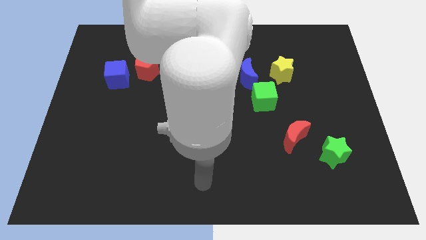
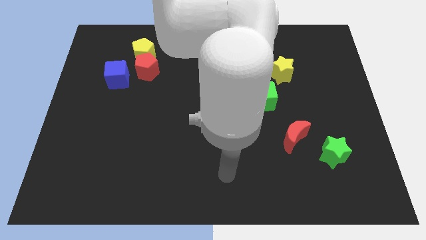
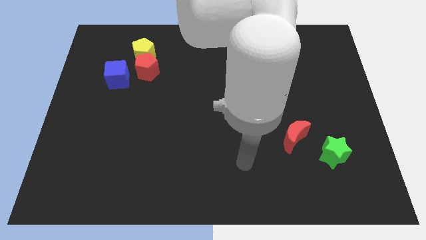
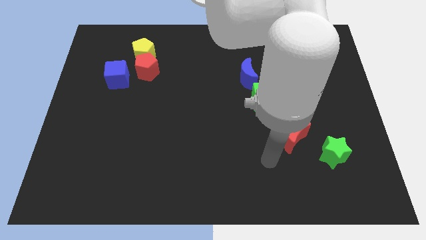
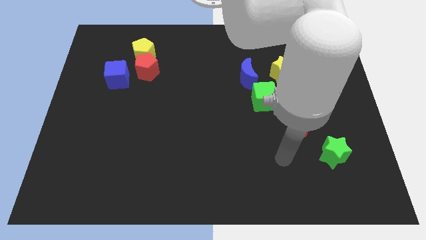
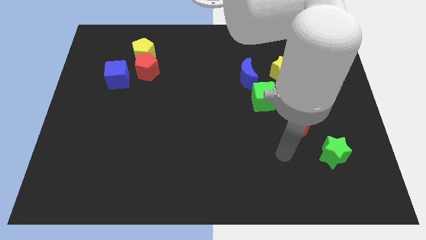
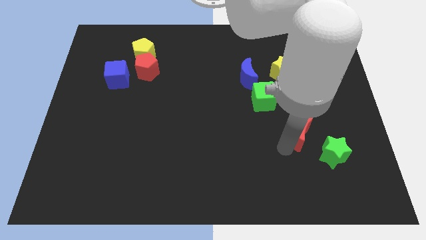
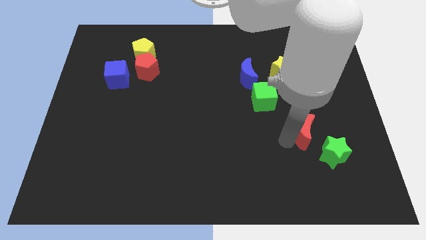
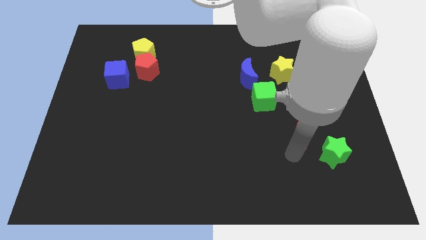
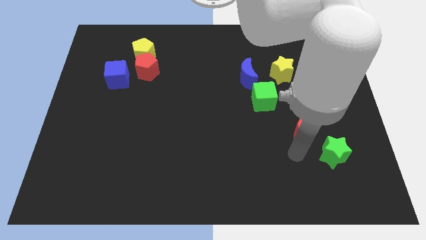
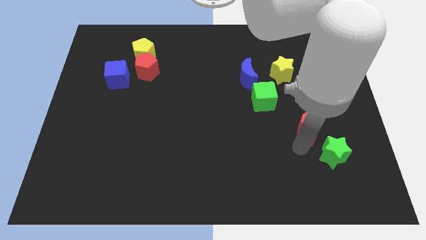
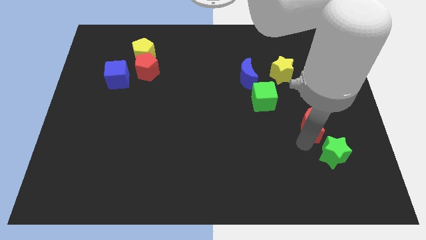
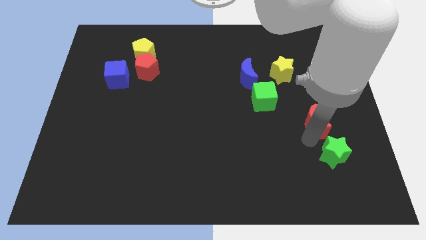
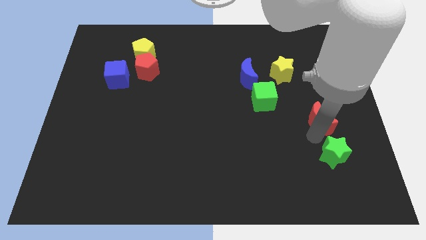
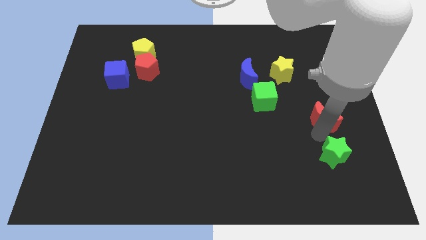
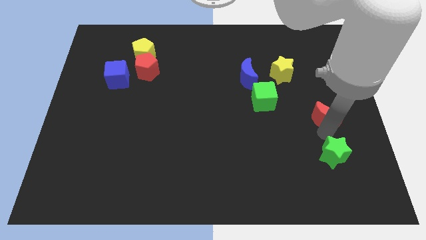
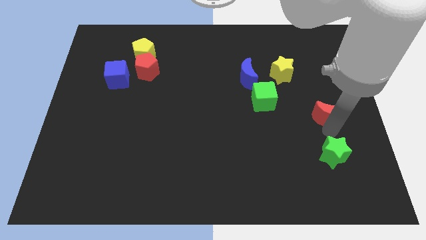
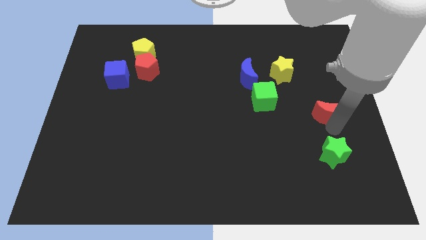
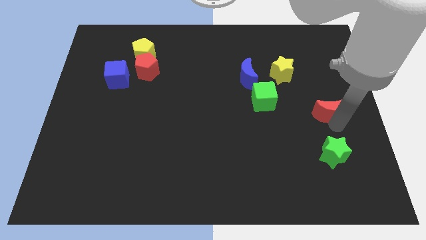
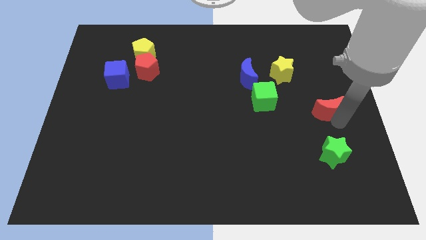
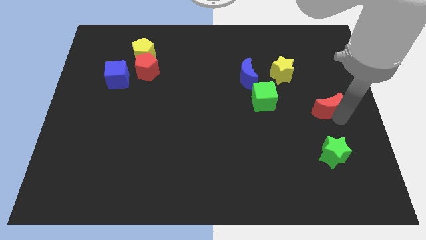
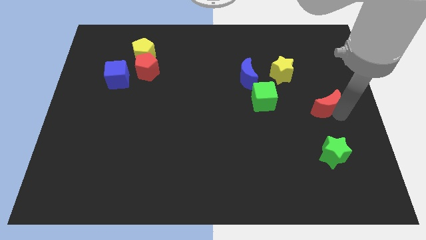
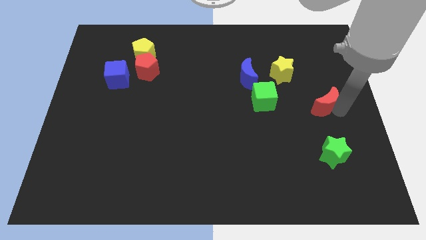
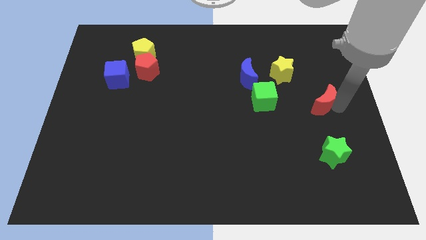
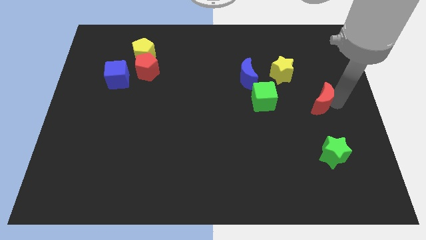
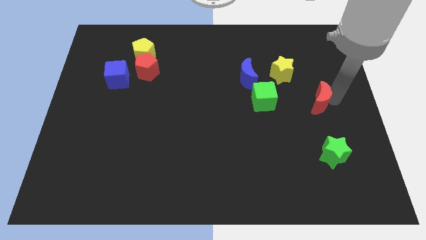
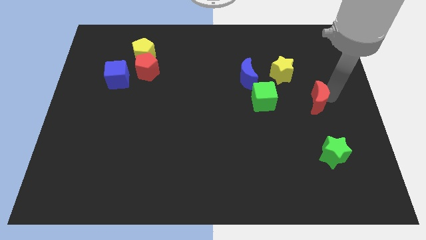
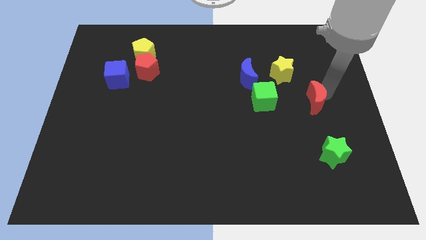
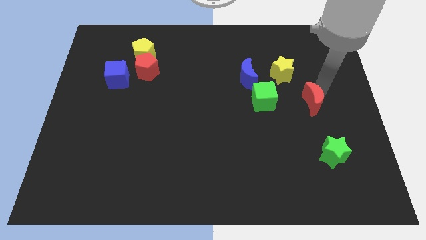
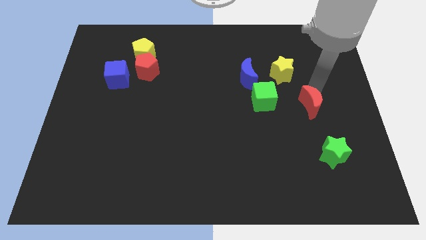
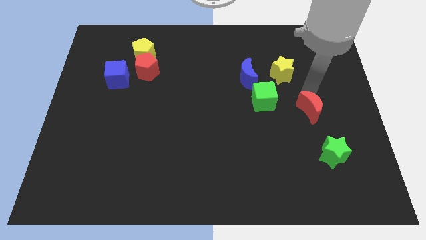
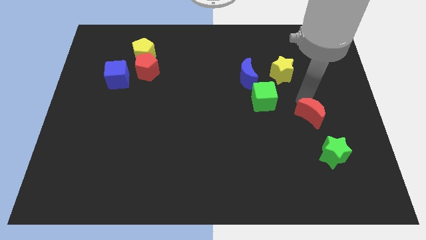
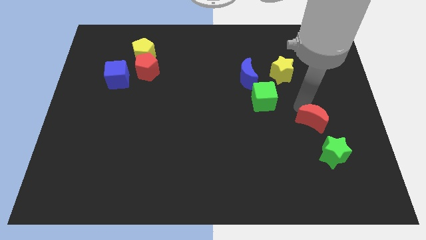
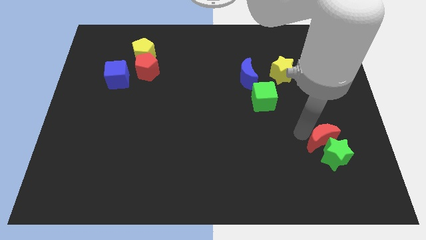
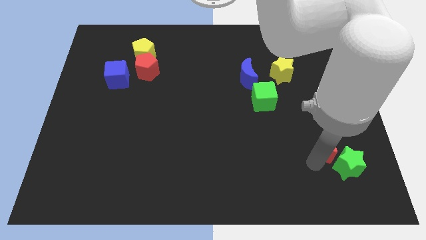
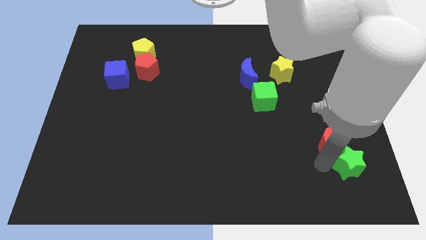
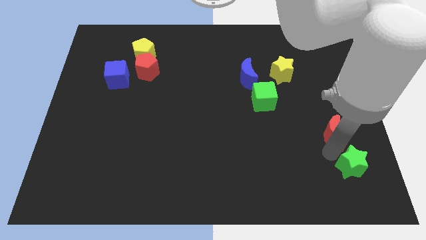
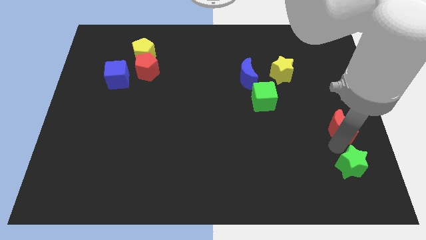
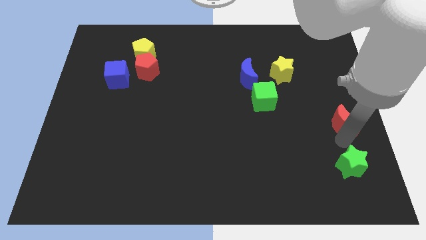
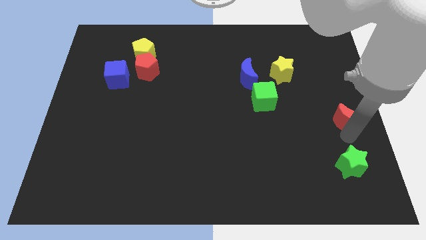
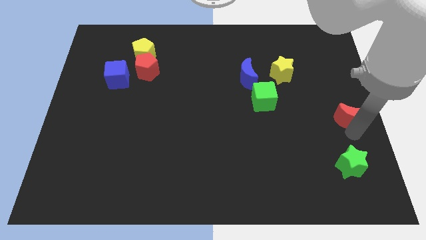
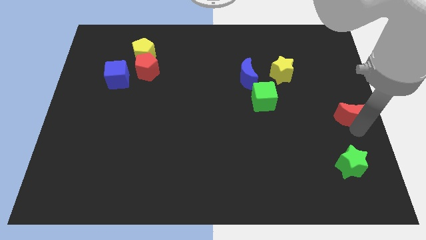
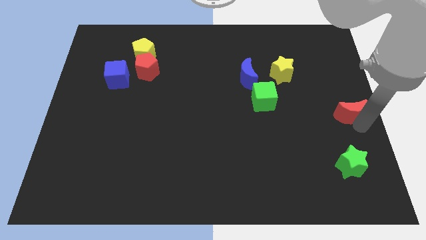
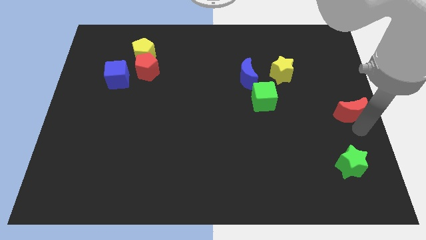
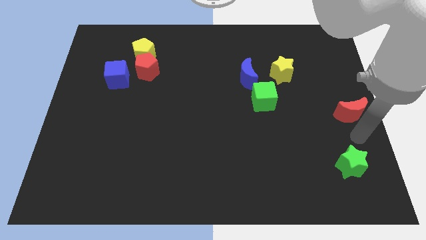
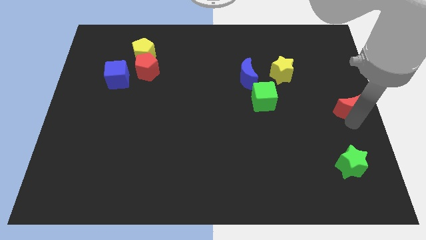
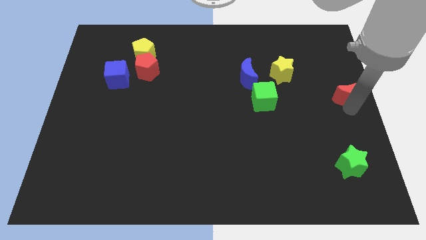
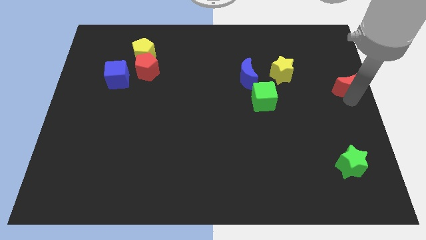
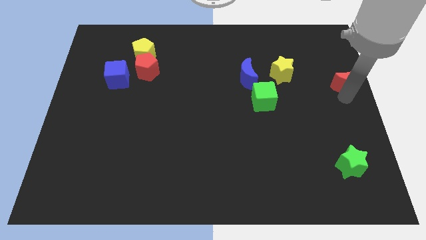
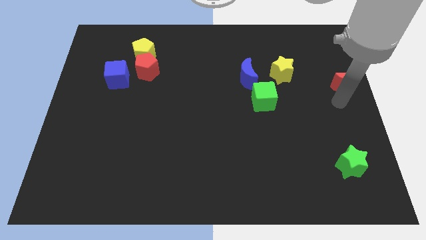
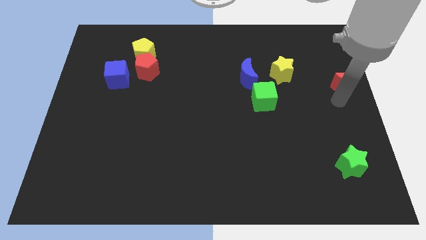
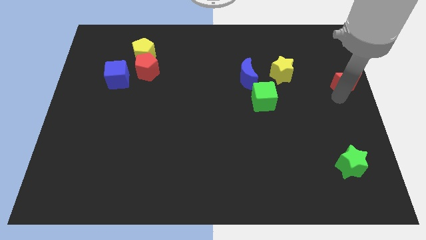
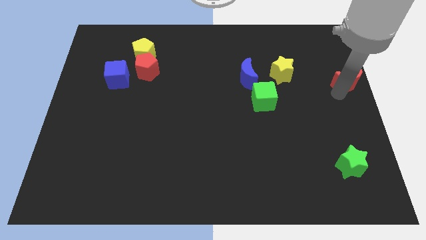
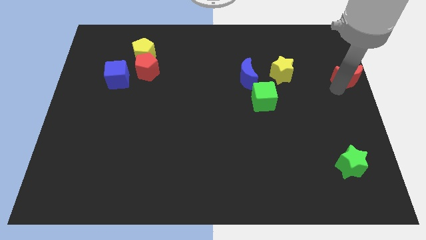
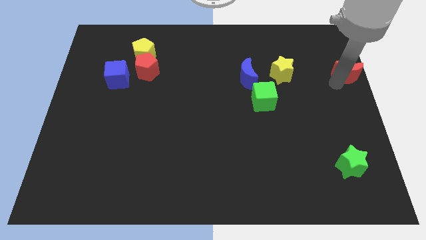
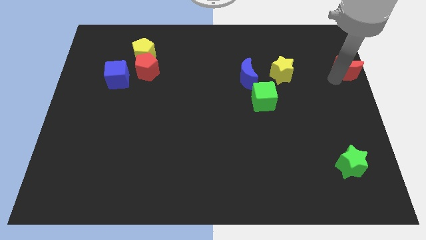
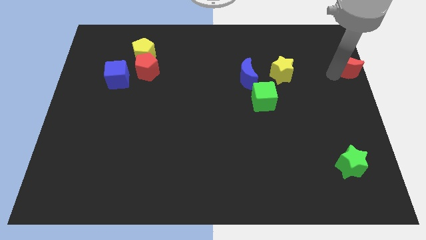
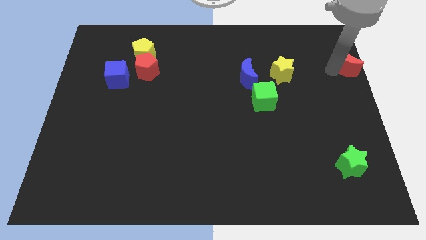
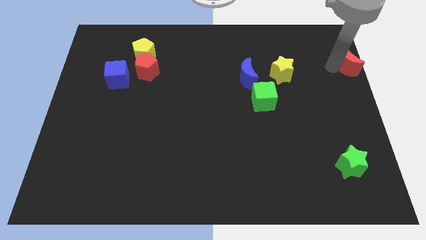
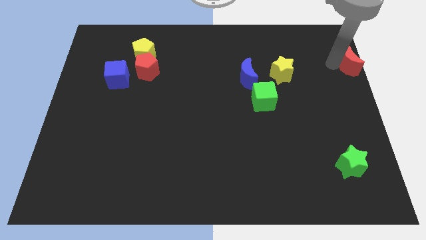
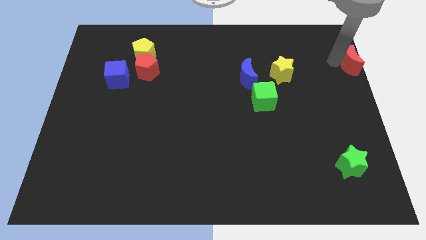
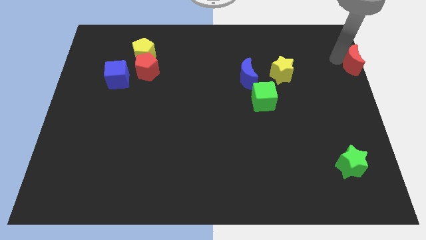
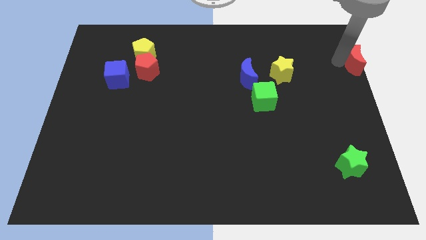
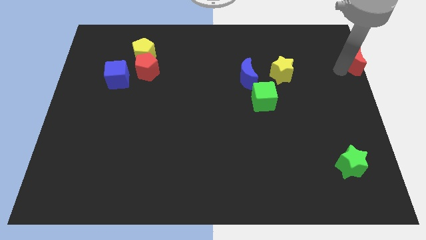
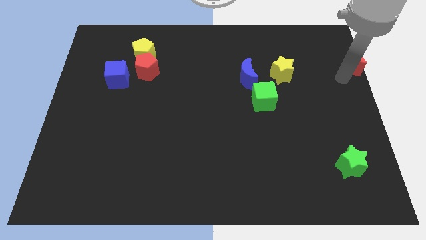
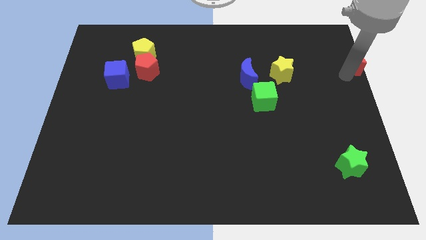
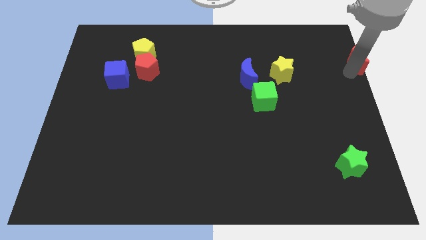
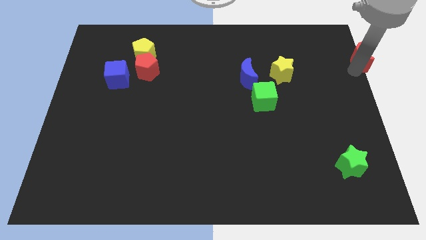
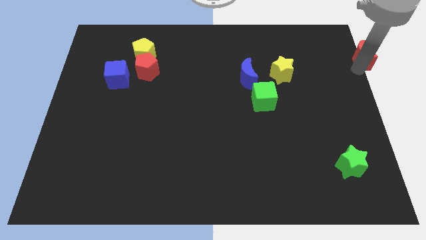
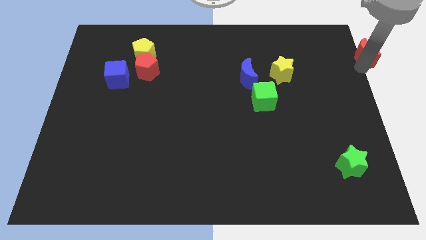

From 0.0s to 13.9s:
move the red moon to the top right

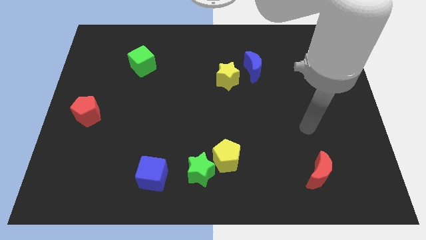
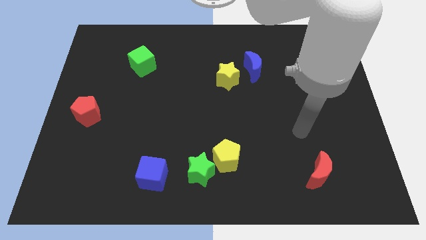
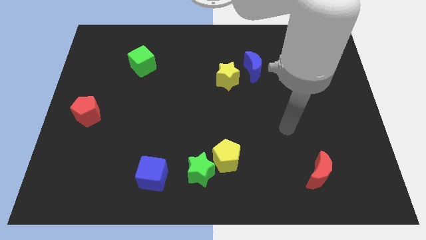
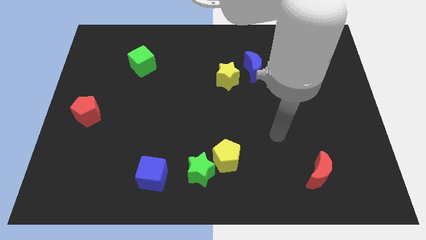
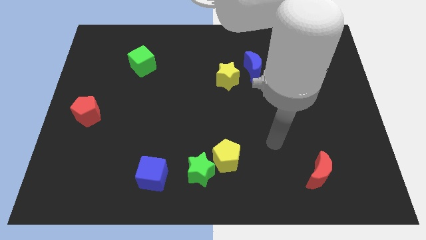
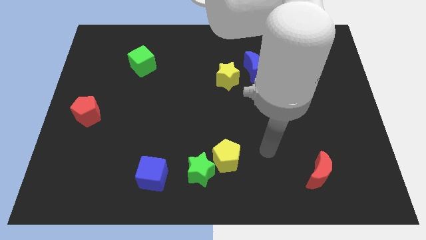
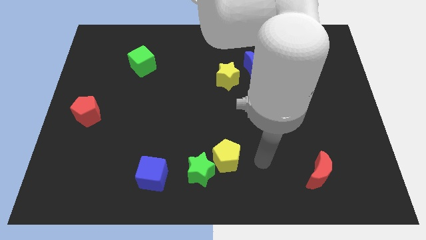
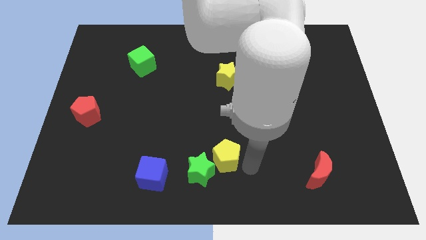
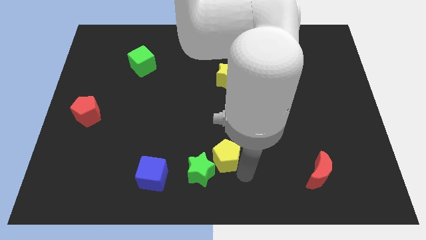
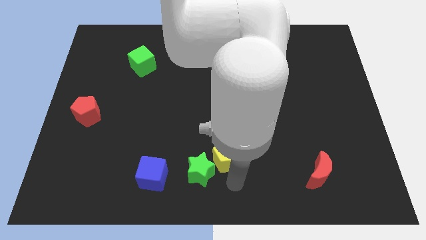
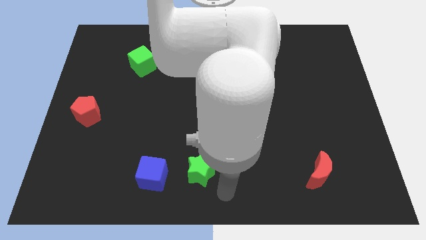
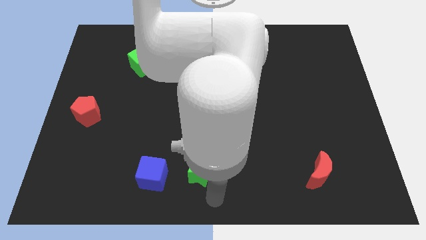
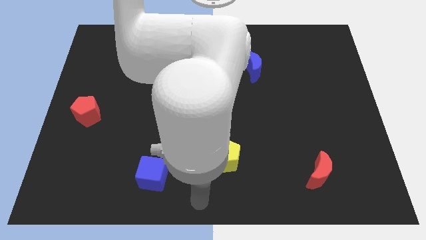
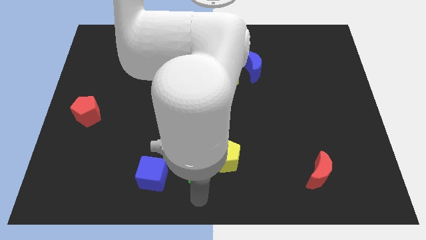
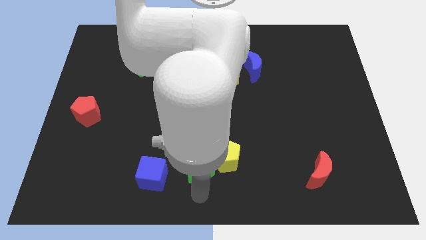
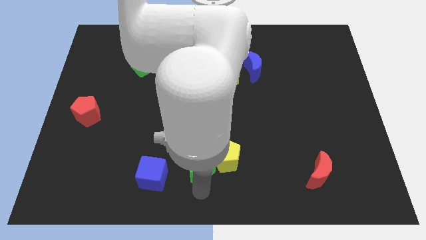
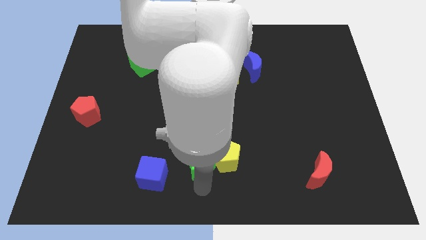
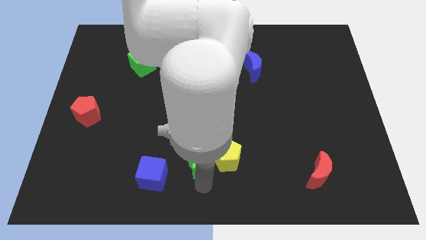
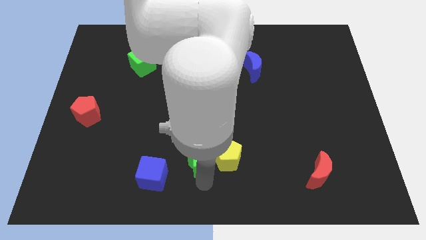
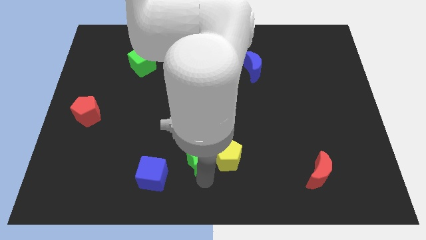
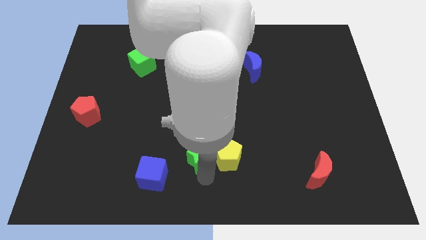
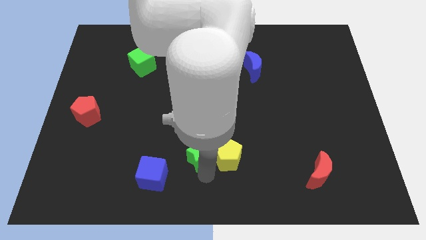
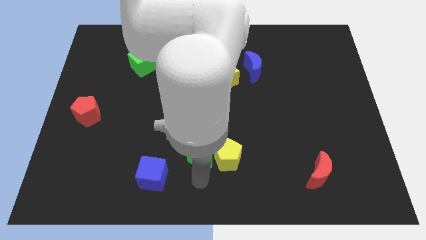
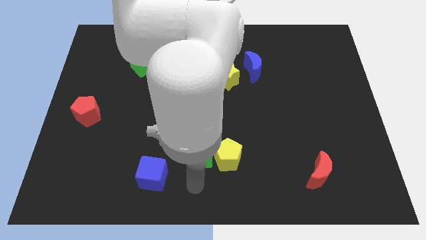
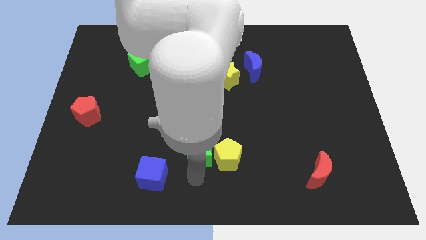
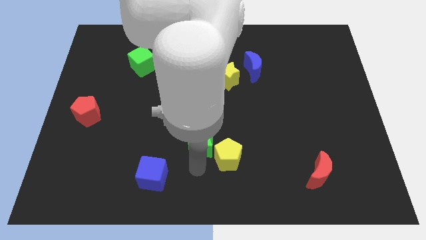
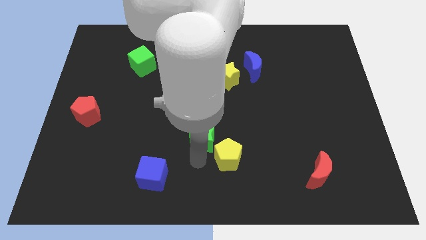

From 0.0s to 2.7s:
push the green star to the middle
